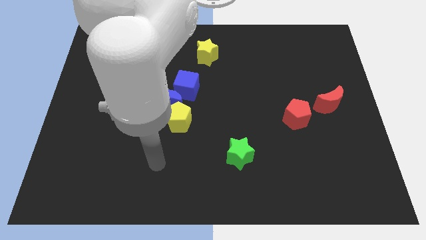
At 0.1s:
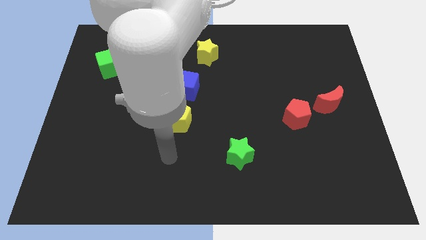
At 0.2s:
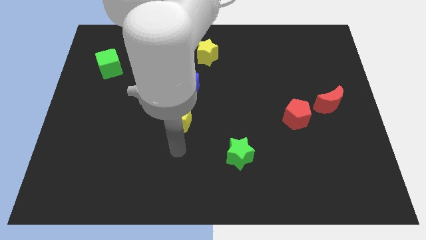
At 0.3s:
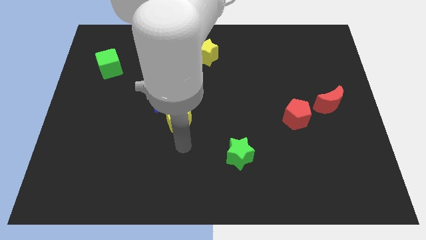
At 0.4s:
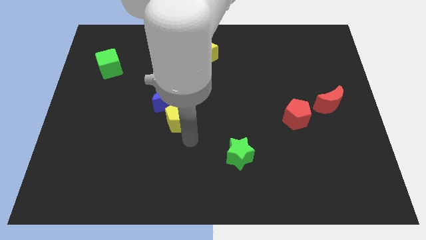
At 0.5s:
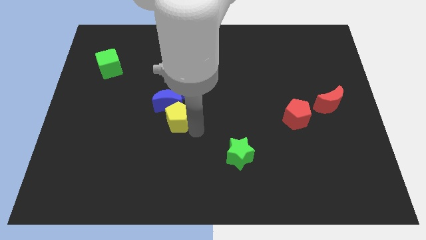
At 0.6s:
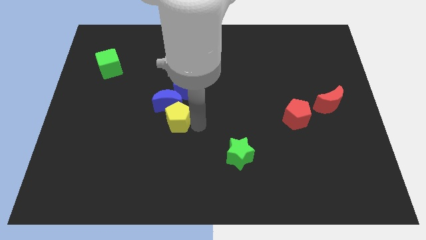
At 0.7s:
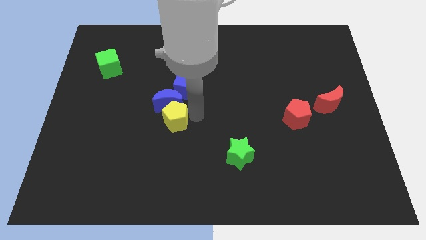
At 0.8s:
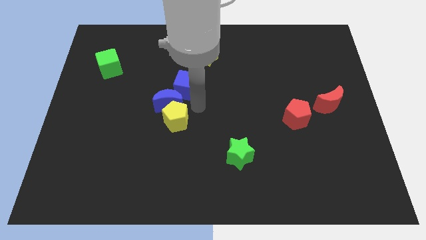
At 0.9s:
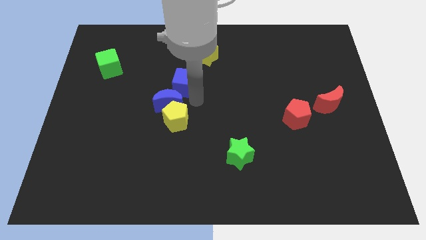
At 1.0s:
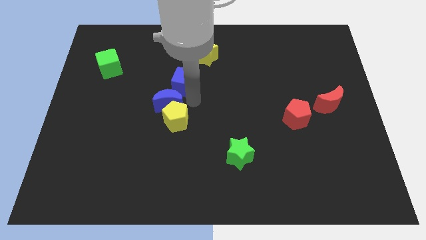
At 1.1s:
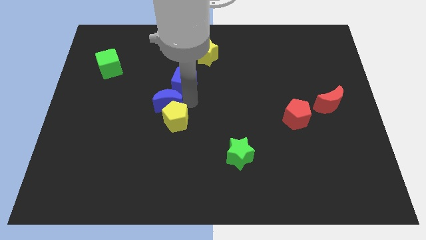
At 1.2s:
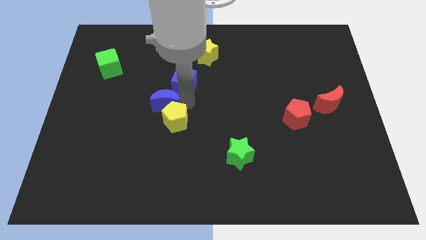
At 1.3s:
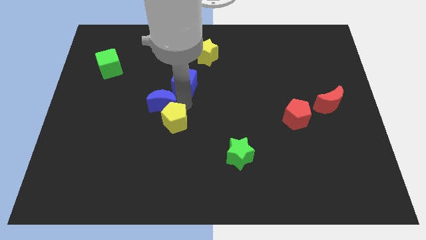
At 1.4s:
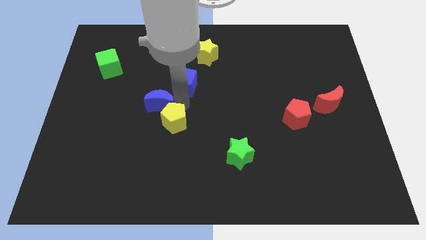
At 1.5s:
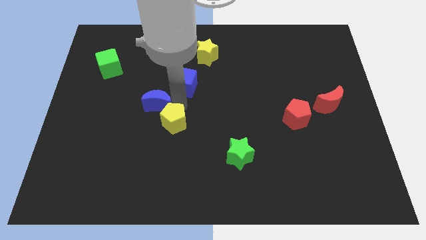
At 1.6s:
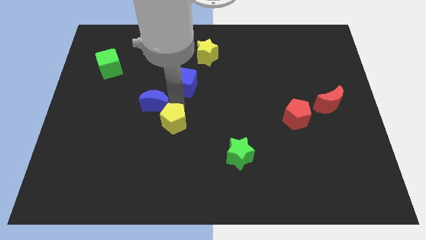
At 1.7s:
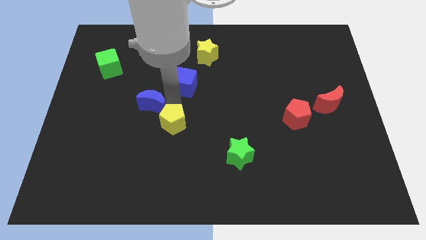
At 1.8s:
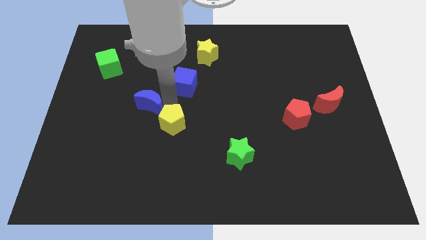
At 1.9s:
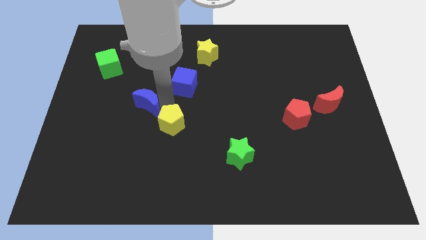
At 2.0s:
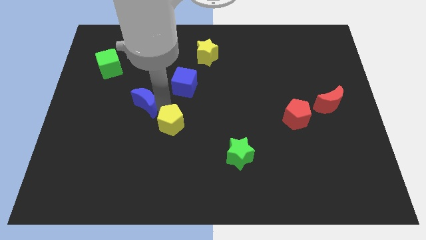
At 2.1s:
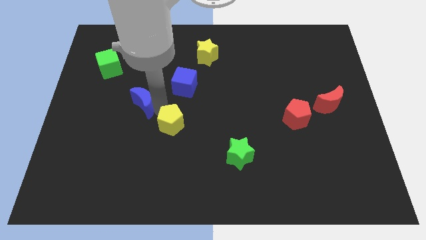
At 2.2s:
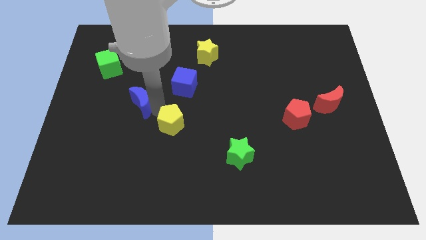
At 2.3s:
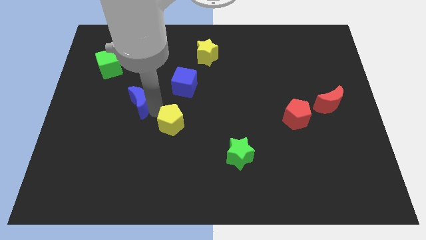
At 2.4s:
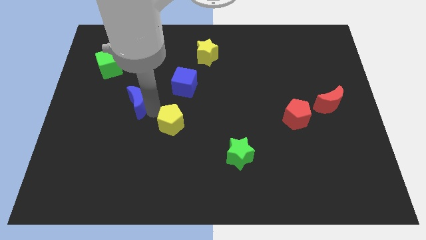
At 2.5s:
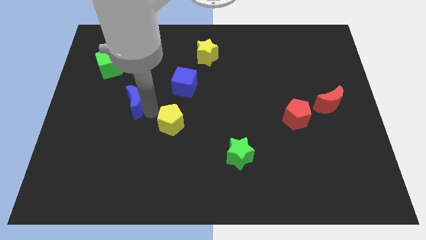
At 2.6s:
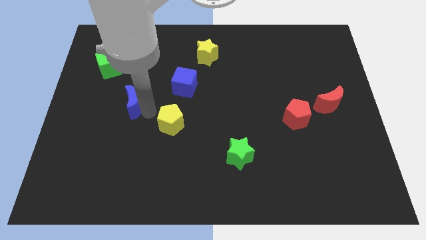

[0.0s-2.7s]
pull the blue moon apart from the yellow pentagon and blue cube

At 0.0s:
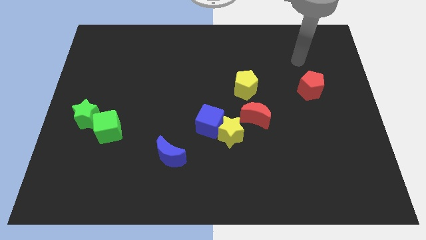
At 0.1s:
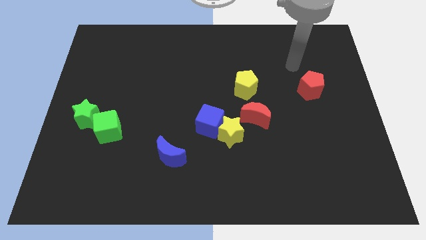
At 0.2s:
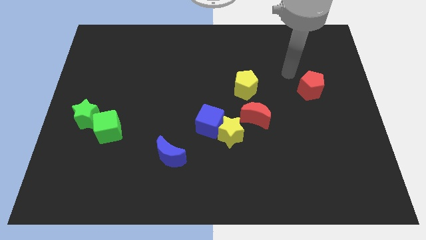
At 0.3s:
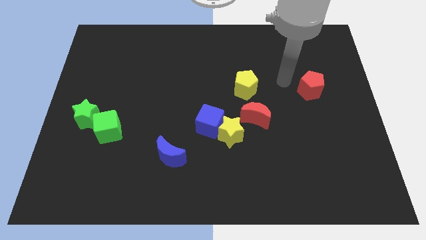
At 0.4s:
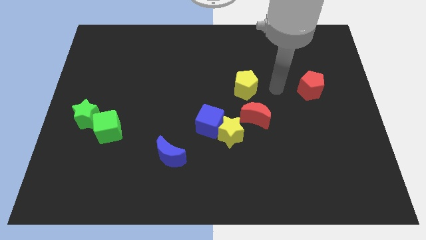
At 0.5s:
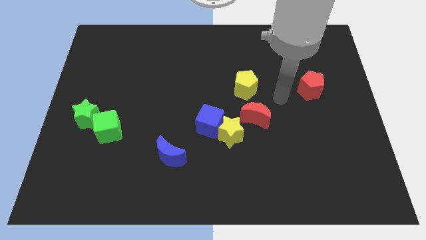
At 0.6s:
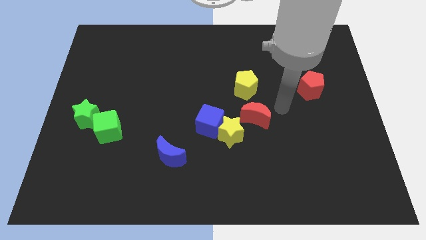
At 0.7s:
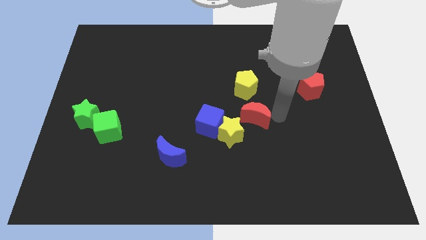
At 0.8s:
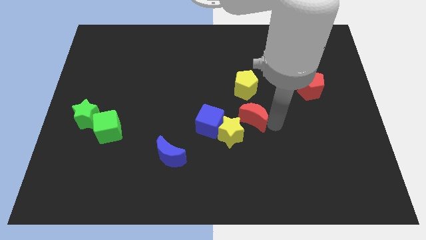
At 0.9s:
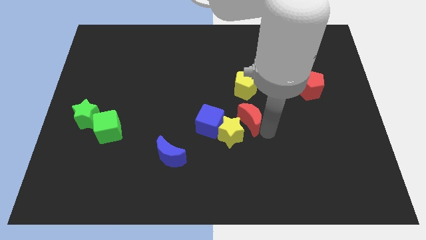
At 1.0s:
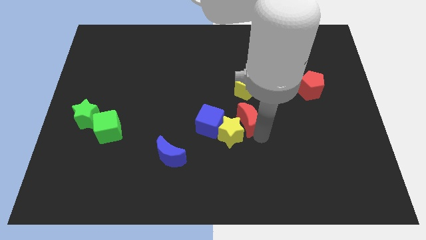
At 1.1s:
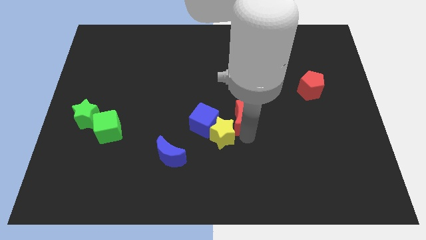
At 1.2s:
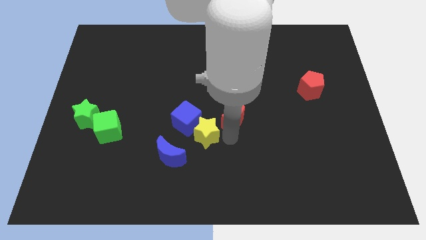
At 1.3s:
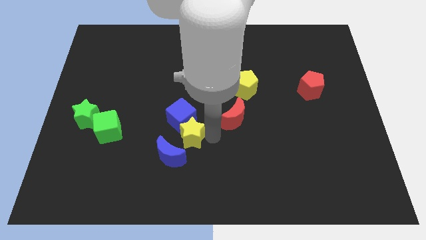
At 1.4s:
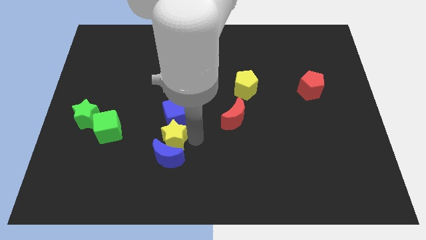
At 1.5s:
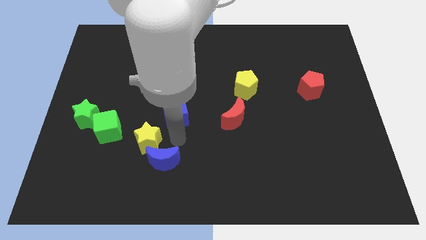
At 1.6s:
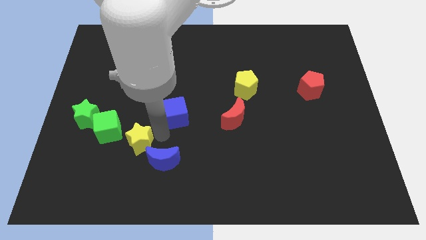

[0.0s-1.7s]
separate the blue cube from the yellow star

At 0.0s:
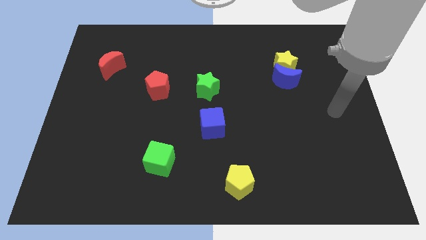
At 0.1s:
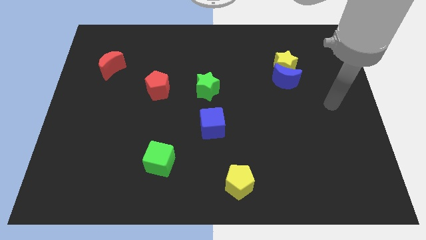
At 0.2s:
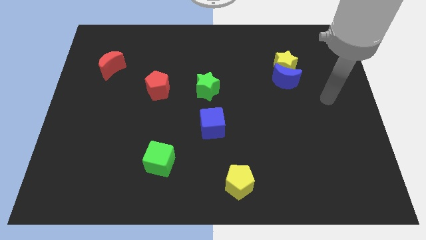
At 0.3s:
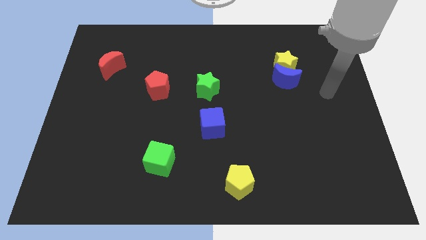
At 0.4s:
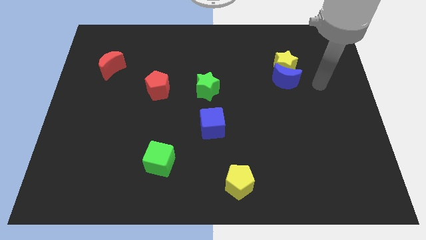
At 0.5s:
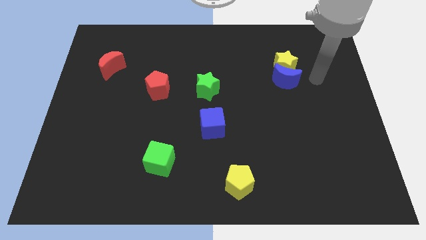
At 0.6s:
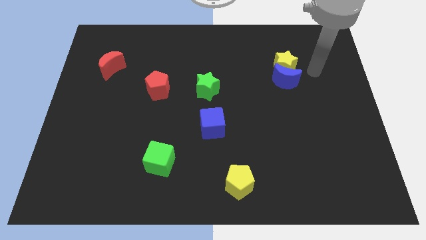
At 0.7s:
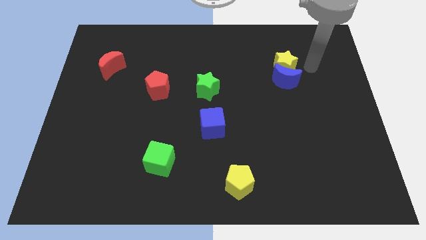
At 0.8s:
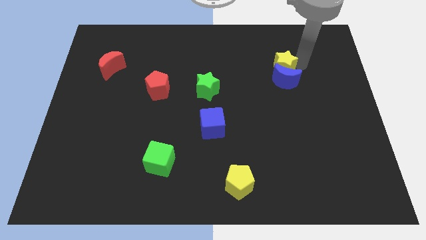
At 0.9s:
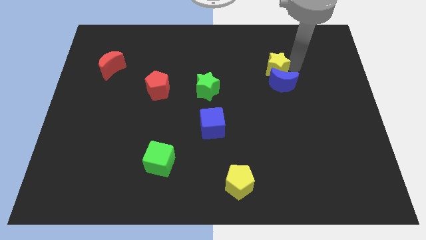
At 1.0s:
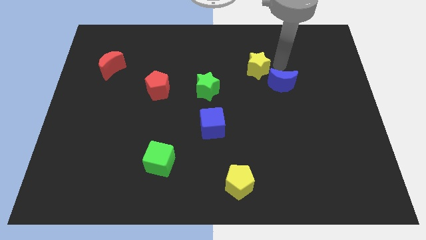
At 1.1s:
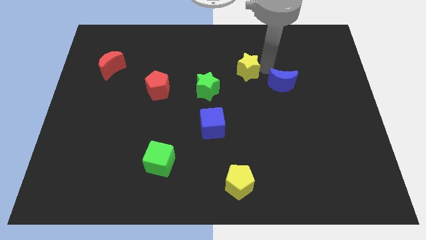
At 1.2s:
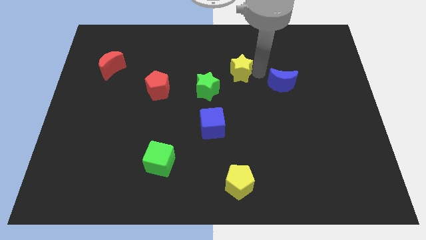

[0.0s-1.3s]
pull the blue moon apart from the yellow star

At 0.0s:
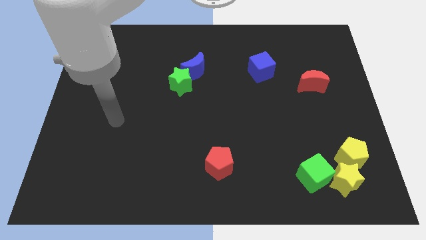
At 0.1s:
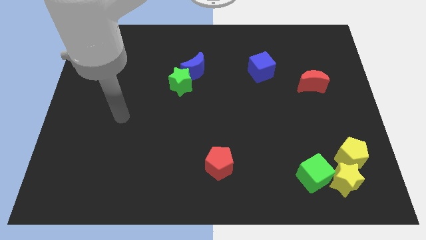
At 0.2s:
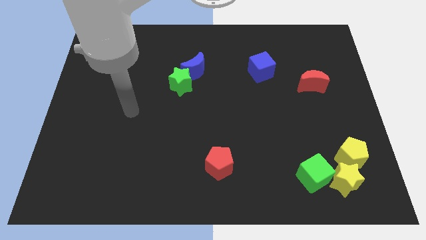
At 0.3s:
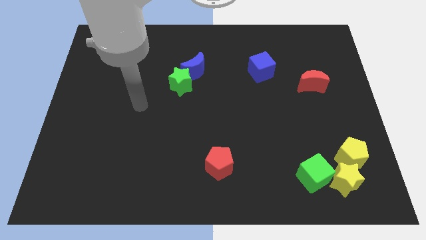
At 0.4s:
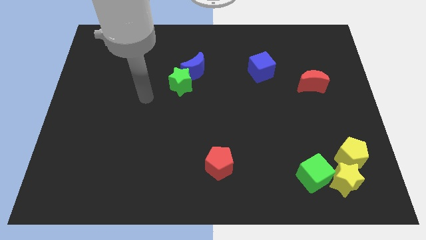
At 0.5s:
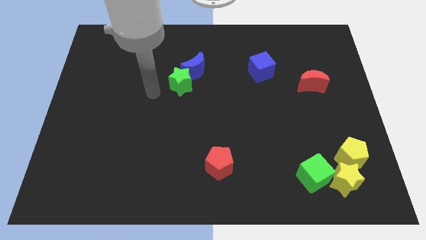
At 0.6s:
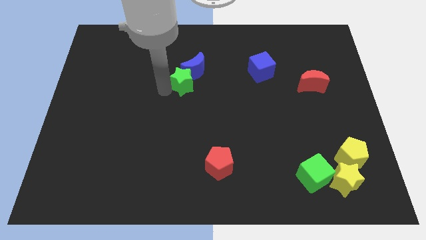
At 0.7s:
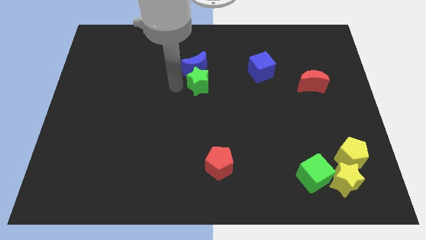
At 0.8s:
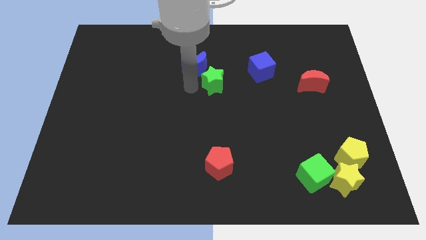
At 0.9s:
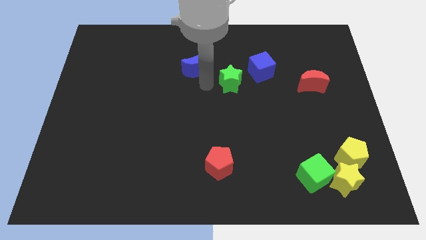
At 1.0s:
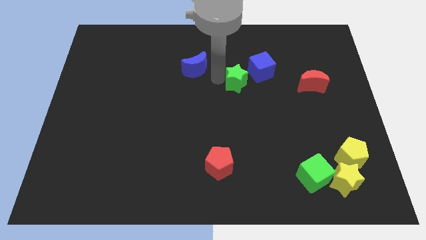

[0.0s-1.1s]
move the blue moon away from the green star

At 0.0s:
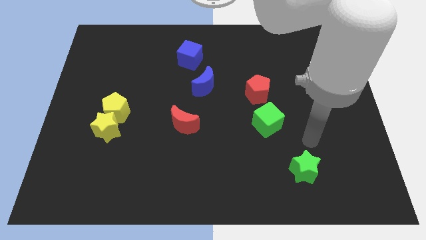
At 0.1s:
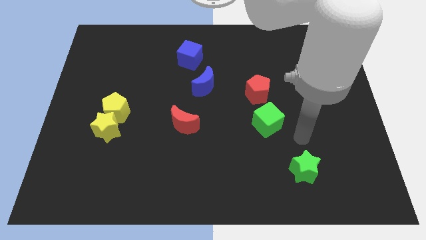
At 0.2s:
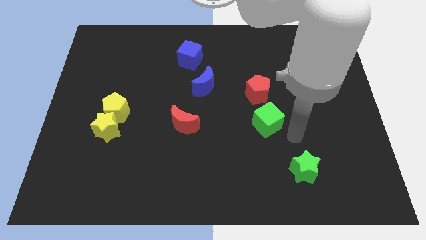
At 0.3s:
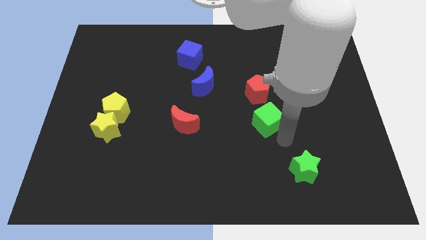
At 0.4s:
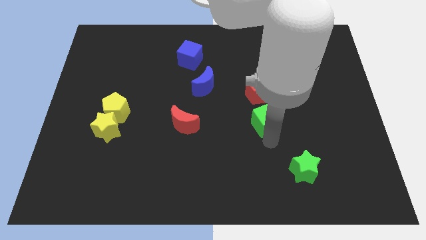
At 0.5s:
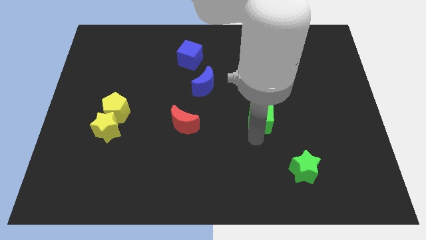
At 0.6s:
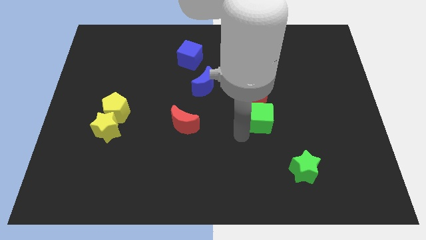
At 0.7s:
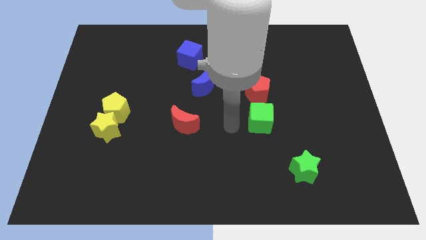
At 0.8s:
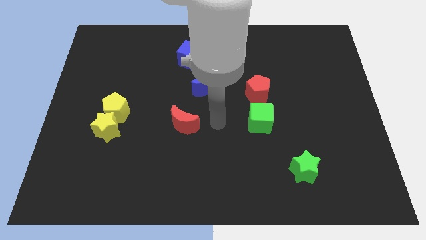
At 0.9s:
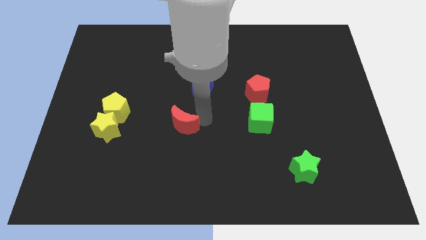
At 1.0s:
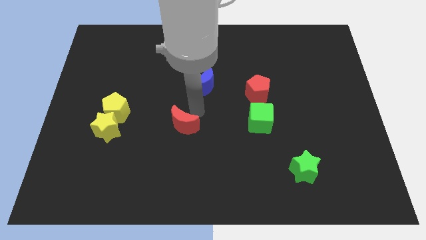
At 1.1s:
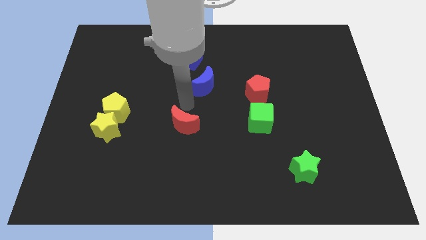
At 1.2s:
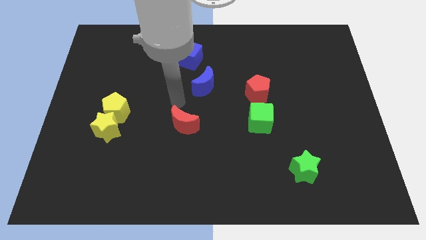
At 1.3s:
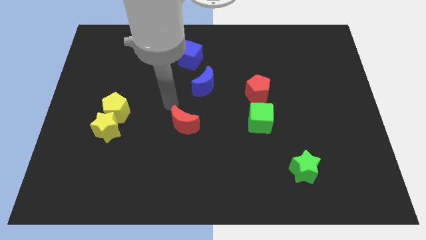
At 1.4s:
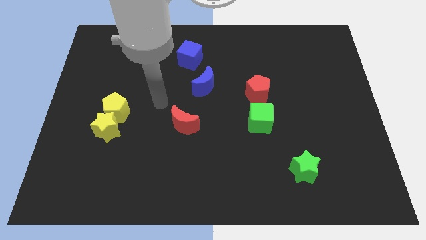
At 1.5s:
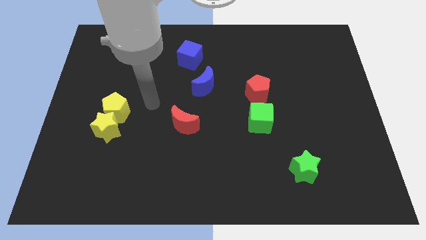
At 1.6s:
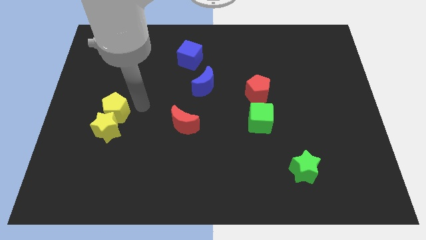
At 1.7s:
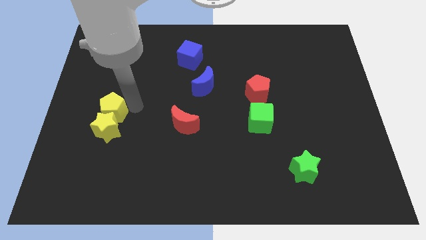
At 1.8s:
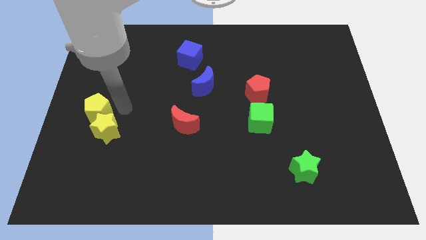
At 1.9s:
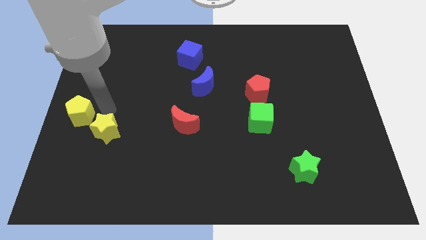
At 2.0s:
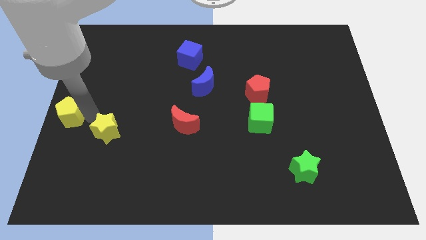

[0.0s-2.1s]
separate the yellow star from the yellow pentagon

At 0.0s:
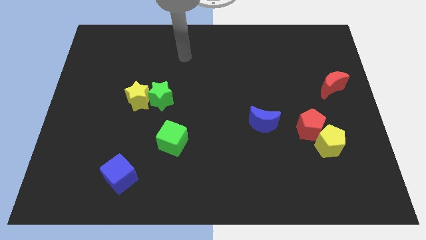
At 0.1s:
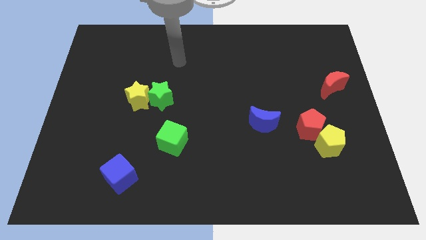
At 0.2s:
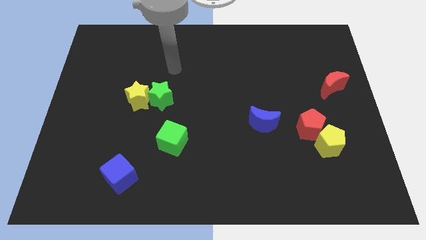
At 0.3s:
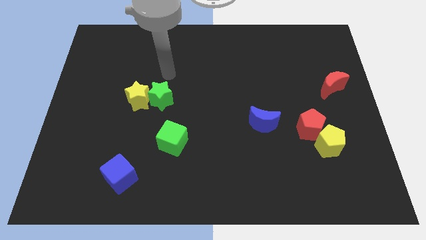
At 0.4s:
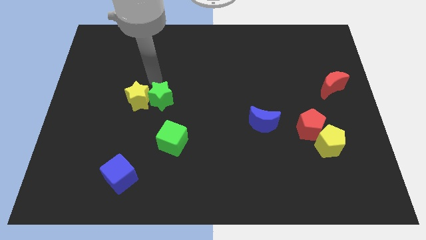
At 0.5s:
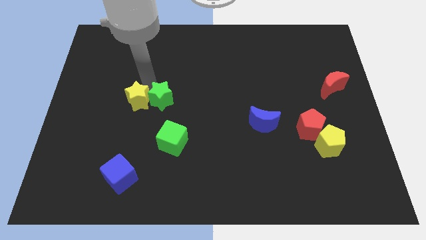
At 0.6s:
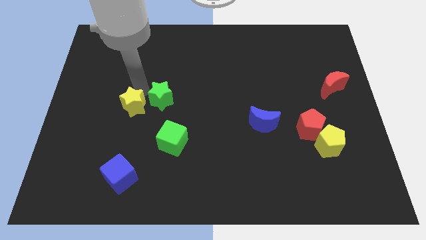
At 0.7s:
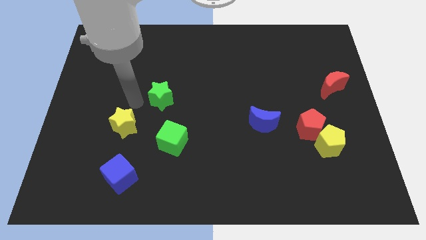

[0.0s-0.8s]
move the green star away from the yellow star
